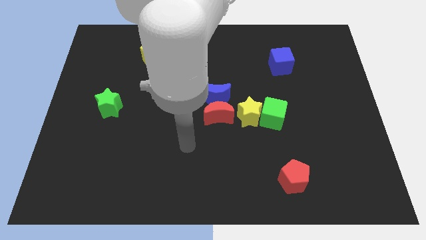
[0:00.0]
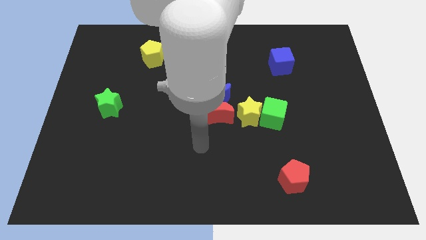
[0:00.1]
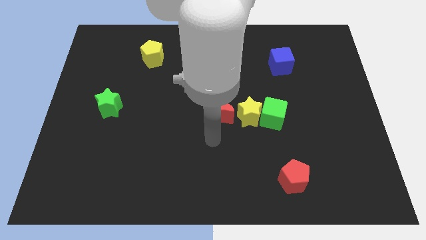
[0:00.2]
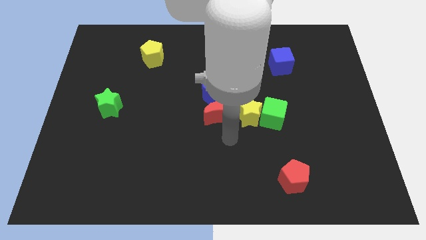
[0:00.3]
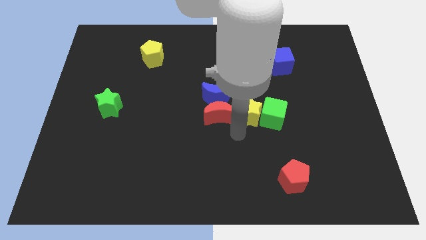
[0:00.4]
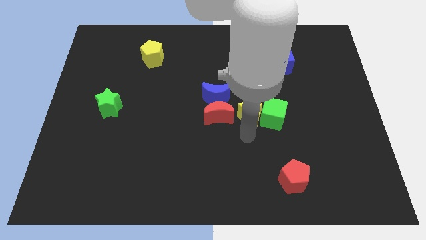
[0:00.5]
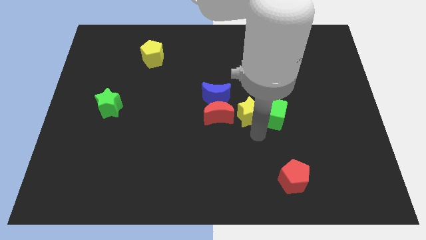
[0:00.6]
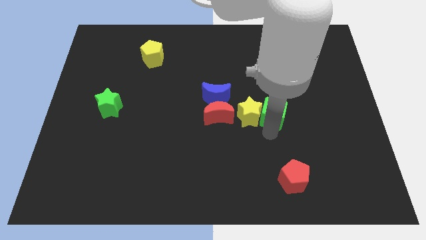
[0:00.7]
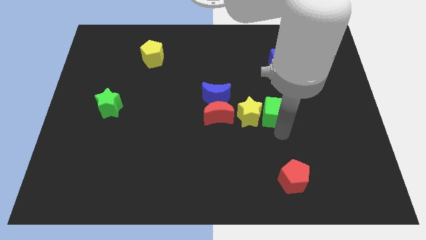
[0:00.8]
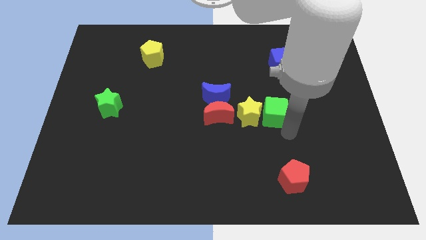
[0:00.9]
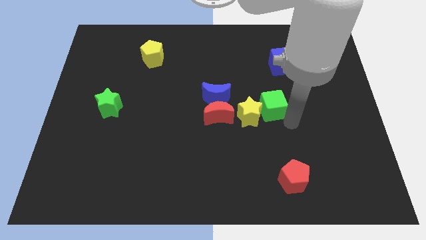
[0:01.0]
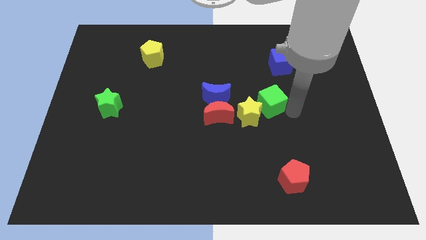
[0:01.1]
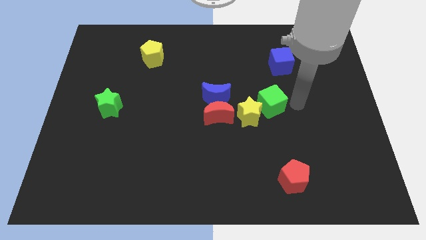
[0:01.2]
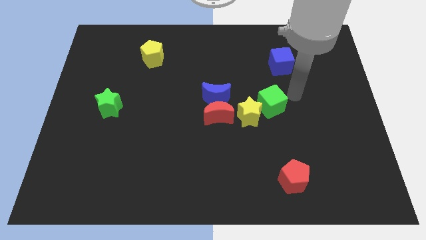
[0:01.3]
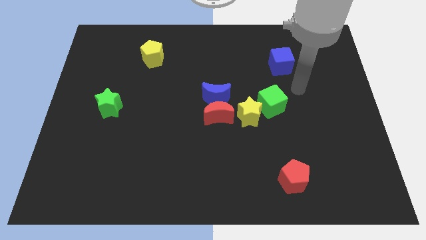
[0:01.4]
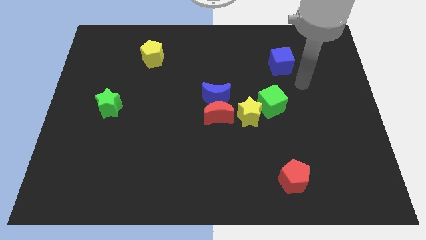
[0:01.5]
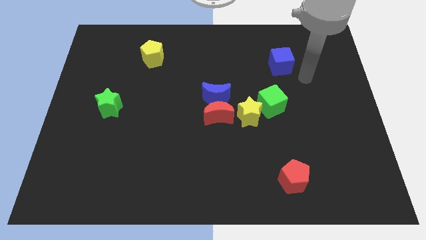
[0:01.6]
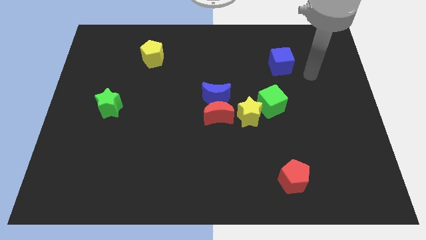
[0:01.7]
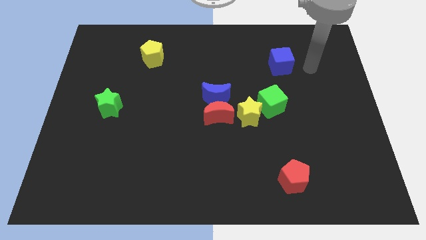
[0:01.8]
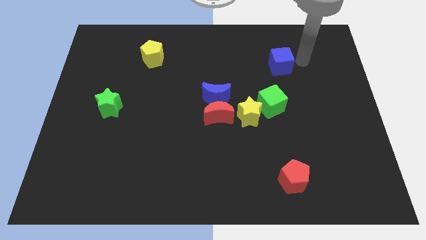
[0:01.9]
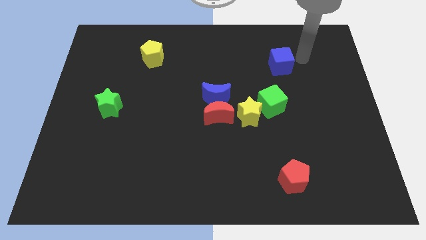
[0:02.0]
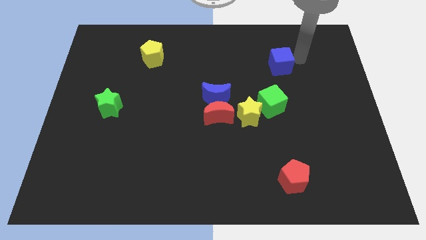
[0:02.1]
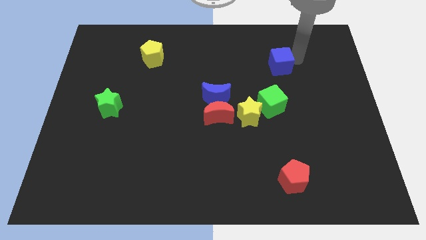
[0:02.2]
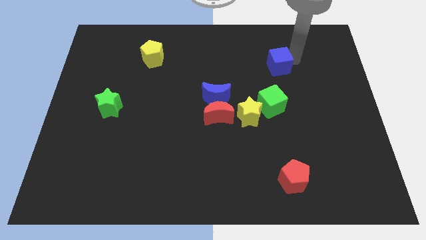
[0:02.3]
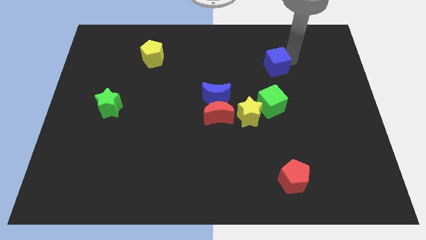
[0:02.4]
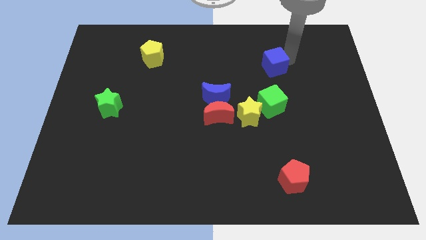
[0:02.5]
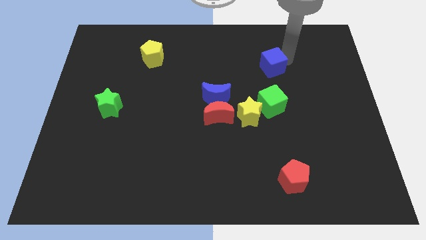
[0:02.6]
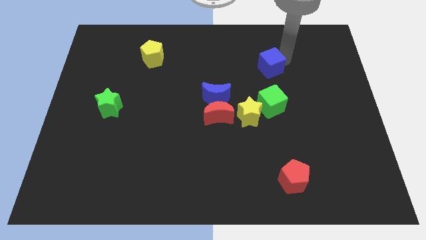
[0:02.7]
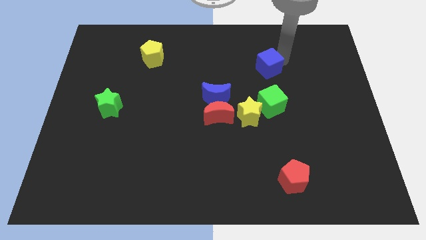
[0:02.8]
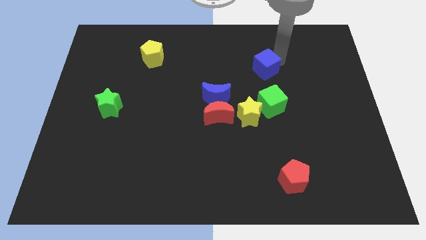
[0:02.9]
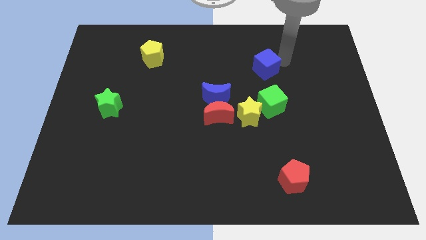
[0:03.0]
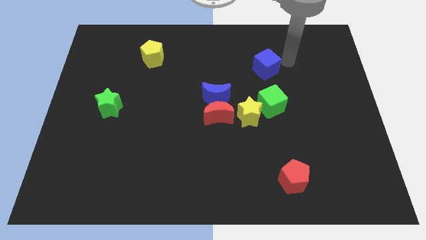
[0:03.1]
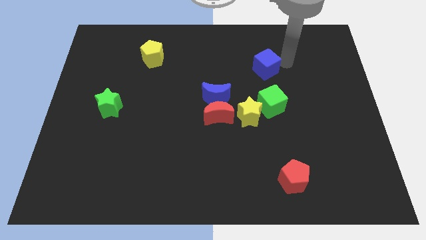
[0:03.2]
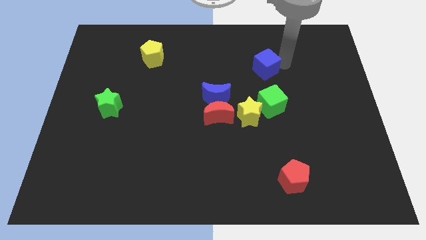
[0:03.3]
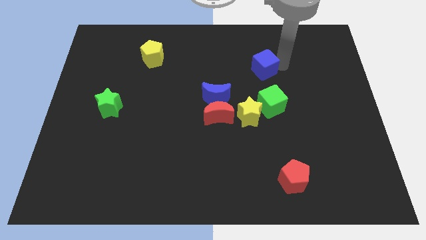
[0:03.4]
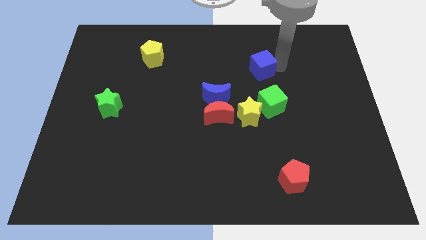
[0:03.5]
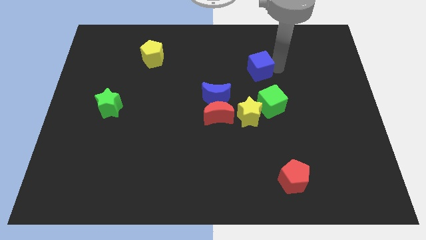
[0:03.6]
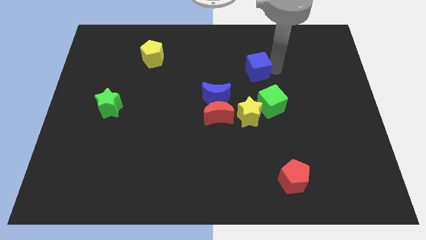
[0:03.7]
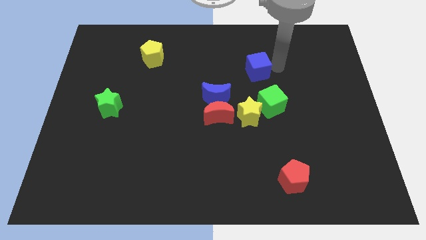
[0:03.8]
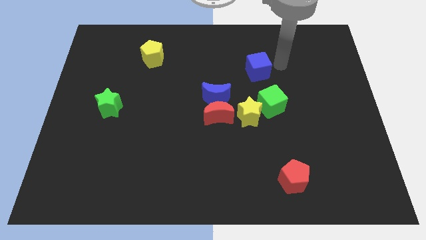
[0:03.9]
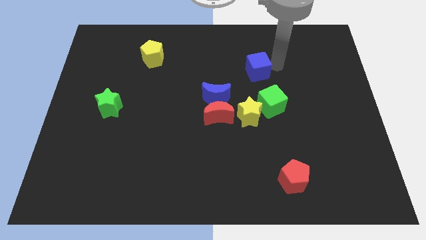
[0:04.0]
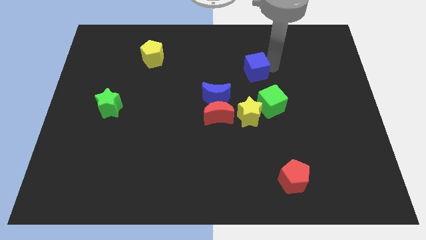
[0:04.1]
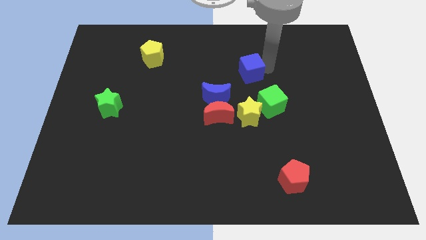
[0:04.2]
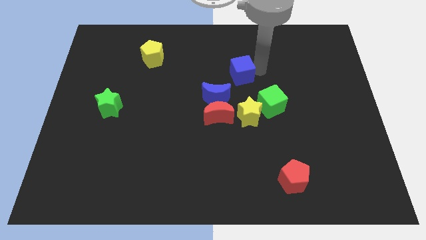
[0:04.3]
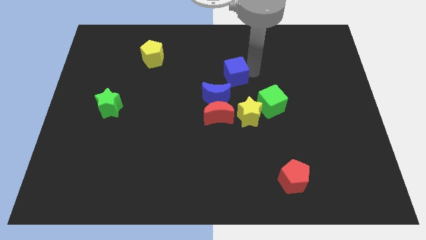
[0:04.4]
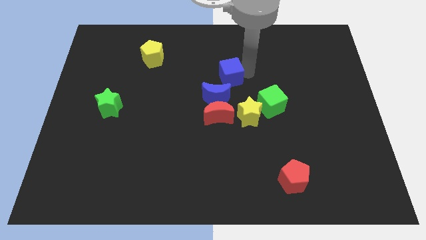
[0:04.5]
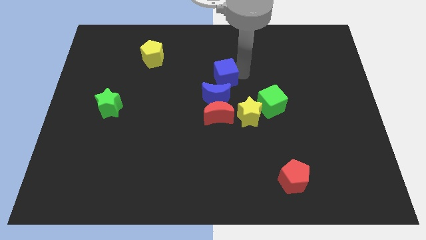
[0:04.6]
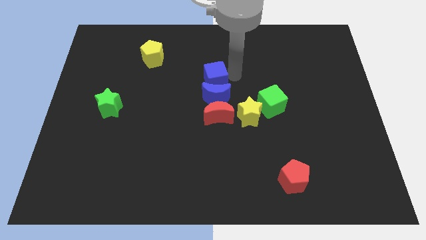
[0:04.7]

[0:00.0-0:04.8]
push the blue cube to the top left of the blue moon

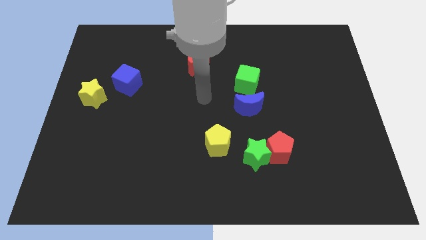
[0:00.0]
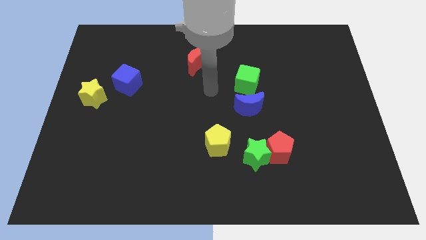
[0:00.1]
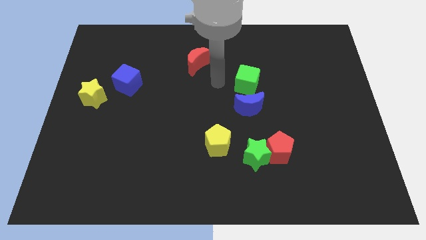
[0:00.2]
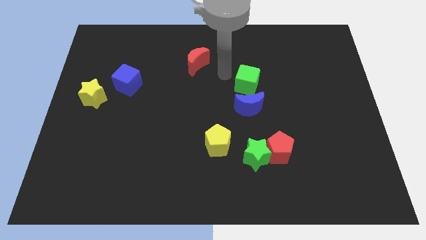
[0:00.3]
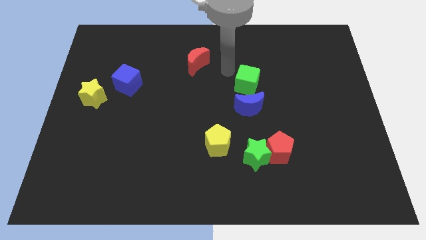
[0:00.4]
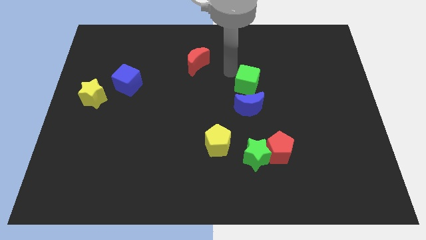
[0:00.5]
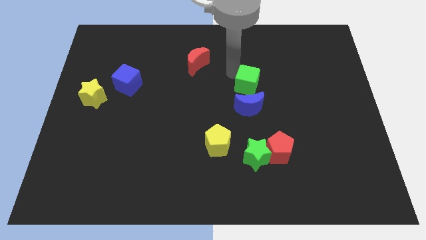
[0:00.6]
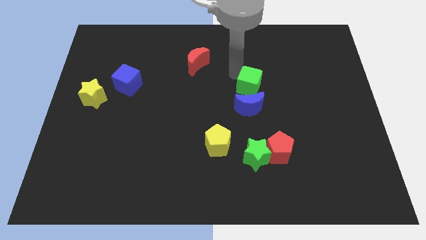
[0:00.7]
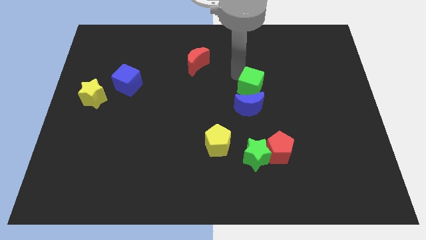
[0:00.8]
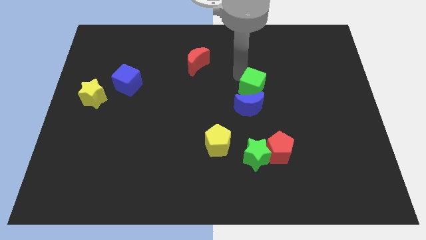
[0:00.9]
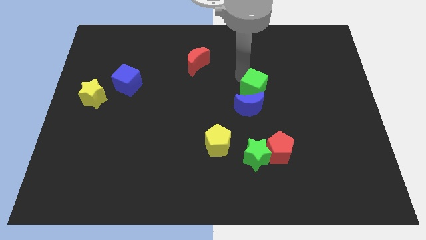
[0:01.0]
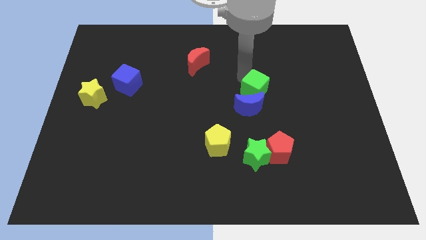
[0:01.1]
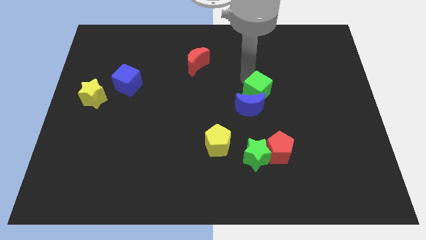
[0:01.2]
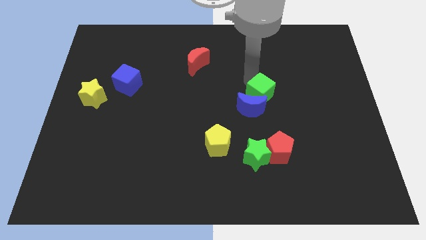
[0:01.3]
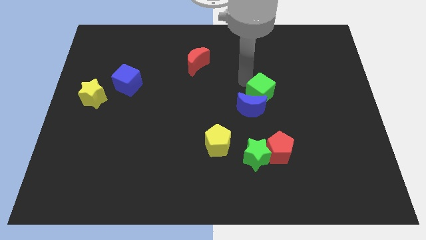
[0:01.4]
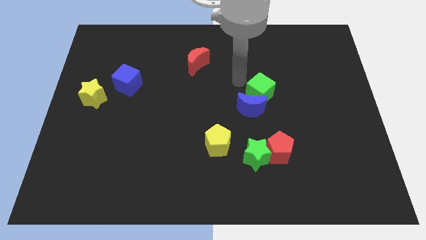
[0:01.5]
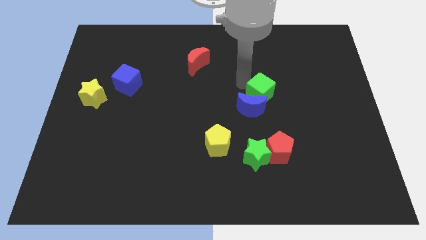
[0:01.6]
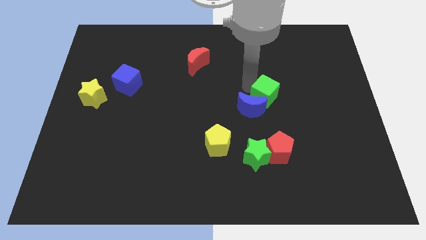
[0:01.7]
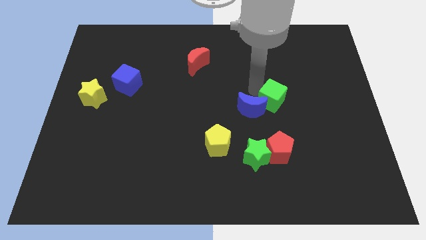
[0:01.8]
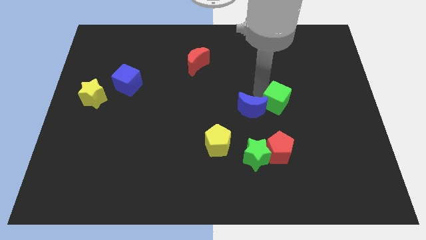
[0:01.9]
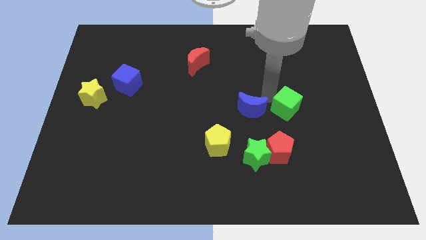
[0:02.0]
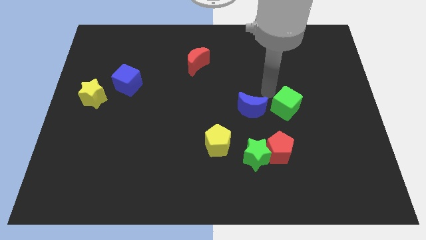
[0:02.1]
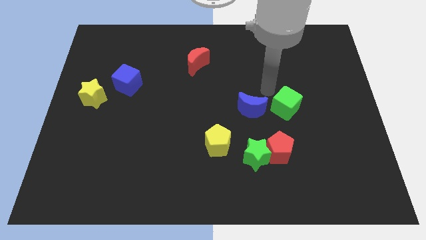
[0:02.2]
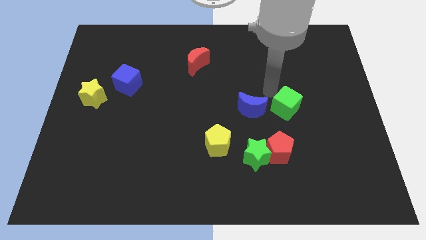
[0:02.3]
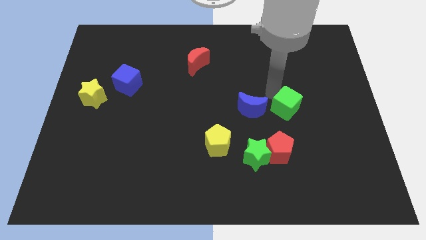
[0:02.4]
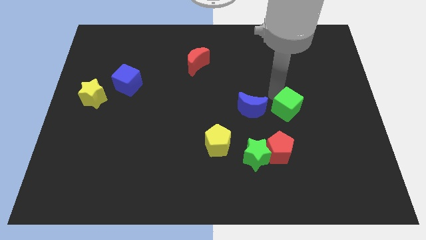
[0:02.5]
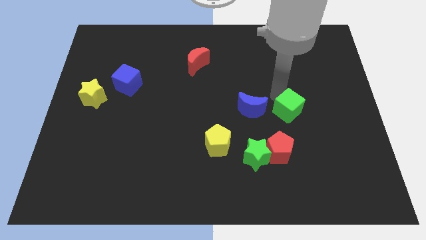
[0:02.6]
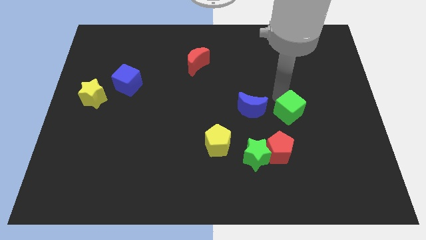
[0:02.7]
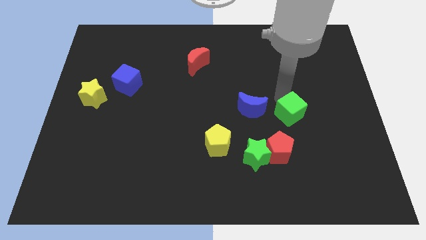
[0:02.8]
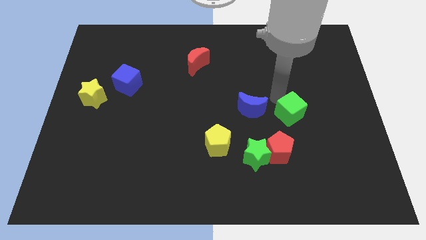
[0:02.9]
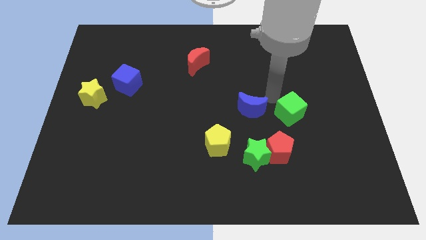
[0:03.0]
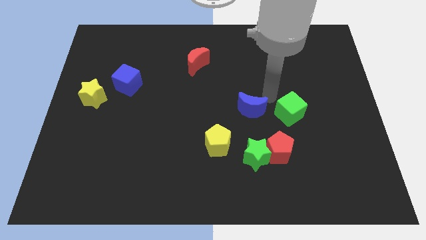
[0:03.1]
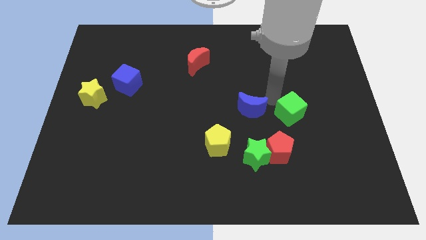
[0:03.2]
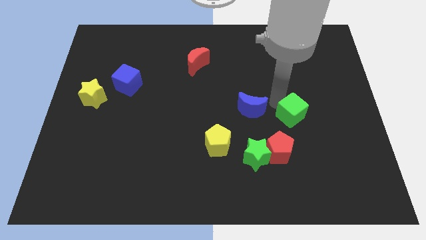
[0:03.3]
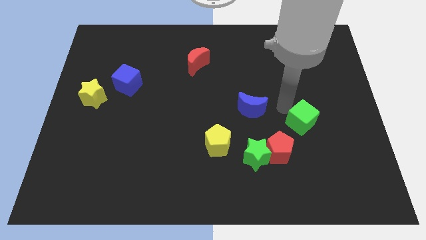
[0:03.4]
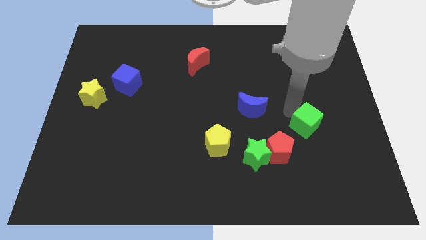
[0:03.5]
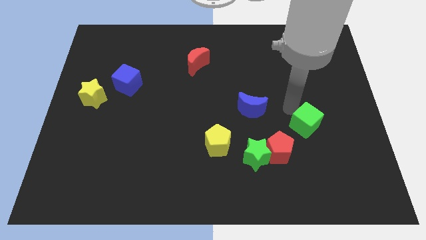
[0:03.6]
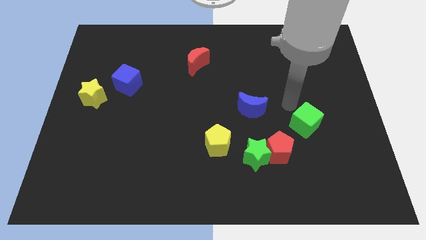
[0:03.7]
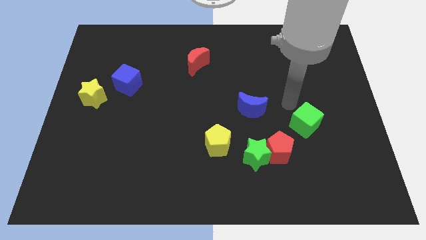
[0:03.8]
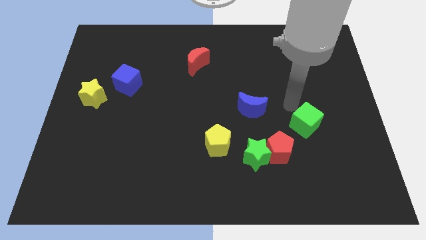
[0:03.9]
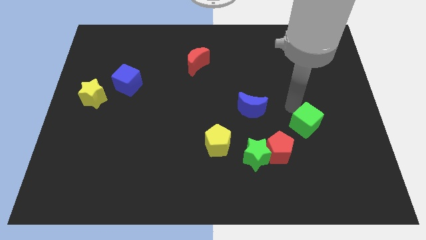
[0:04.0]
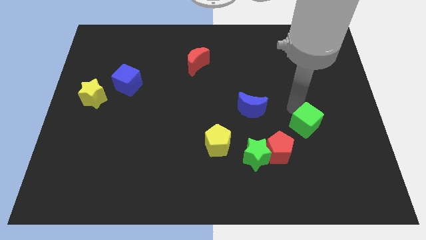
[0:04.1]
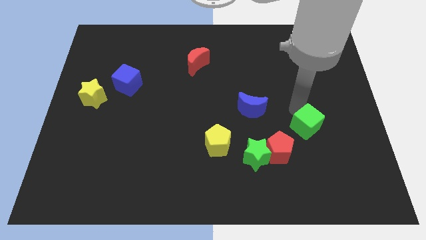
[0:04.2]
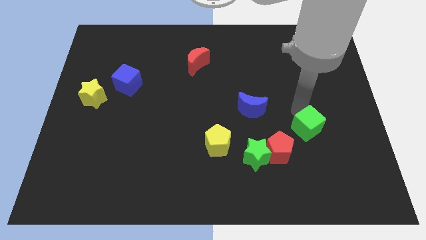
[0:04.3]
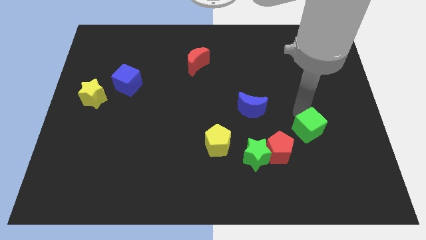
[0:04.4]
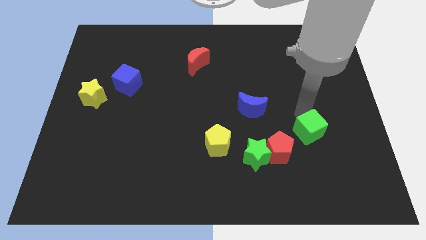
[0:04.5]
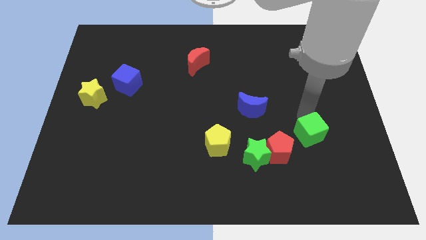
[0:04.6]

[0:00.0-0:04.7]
put the green cube to the right side of the red pentagon
